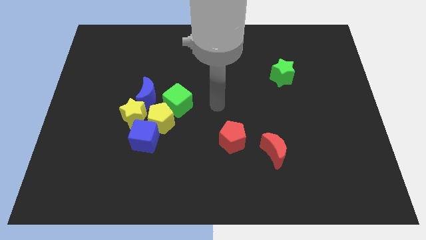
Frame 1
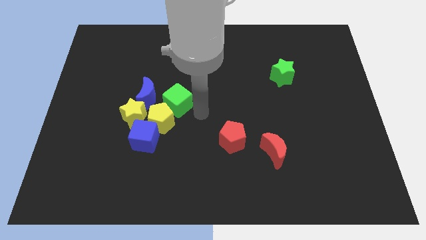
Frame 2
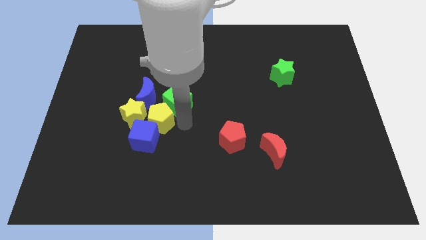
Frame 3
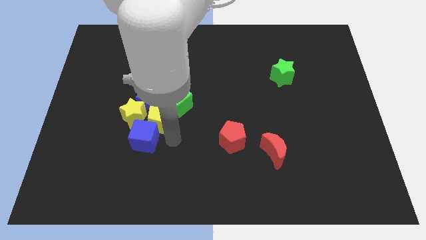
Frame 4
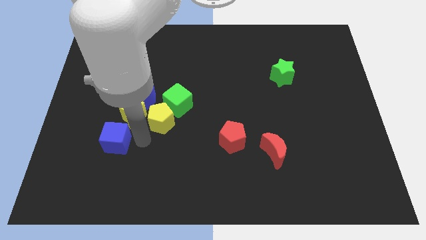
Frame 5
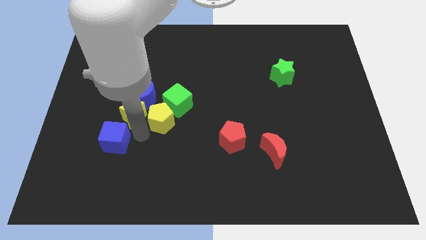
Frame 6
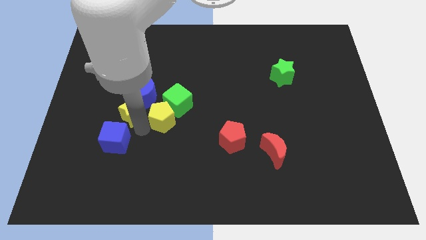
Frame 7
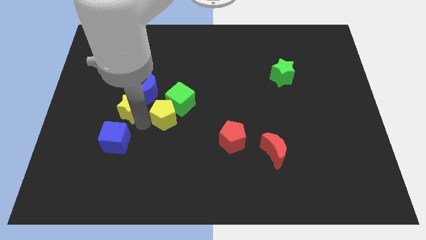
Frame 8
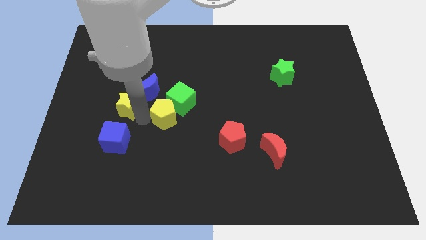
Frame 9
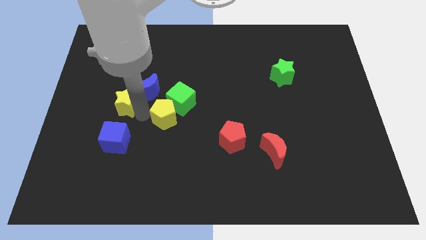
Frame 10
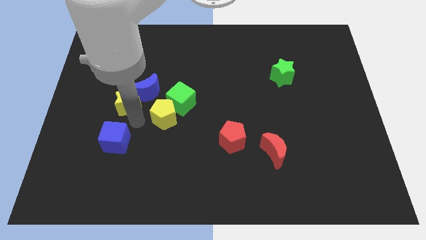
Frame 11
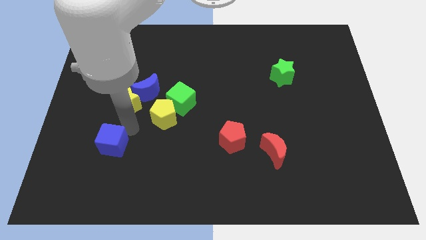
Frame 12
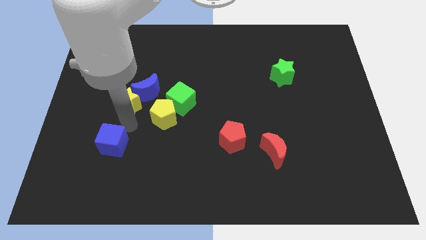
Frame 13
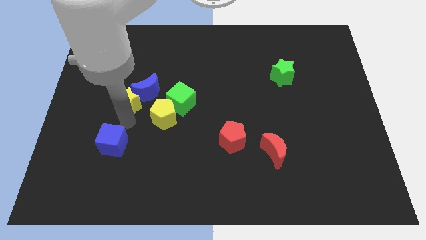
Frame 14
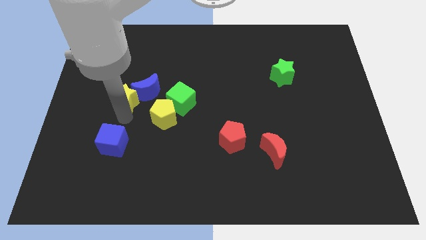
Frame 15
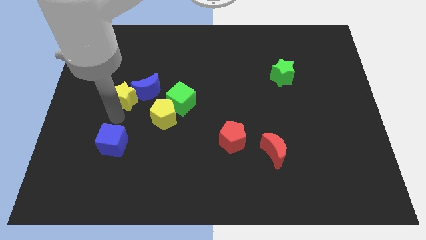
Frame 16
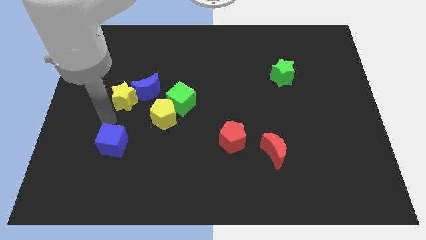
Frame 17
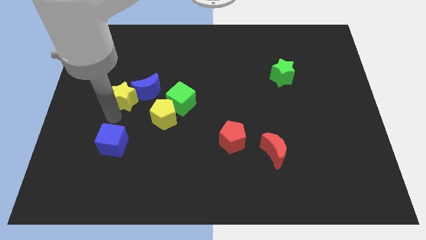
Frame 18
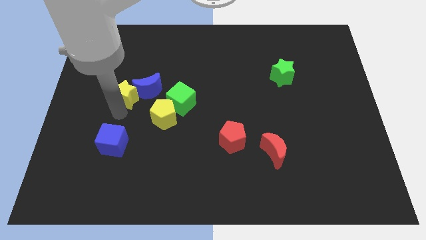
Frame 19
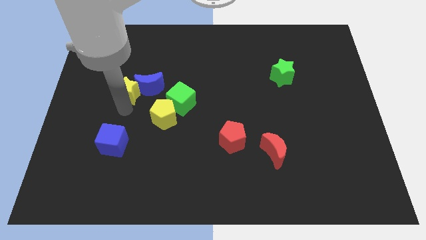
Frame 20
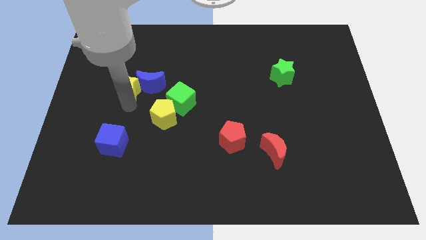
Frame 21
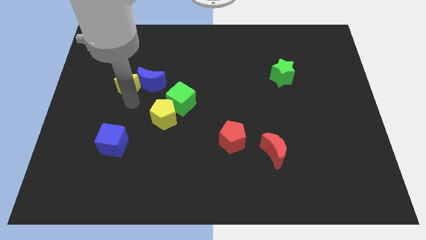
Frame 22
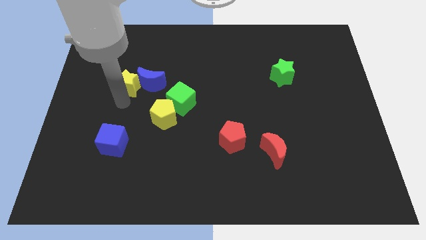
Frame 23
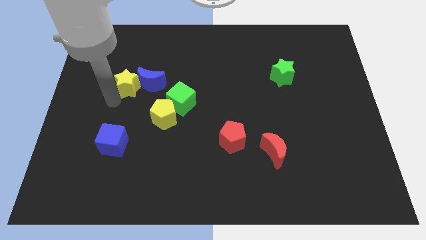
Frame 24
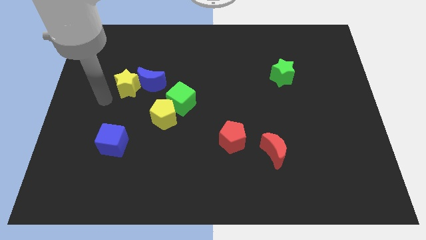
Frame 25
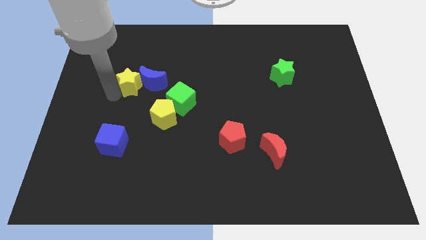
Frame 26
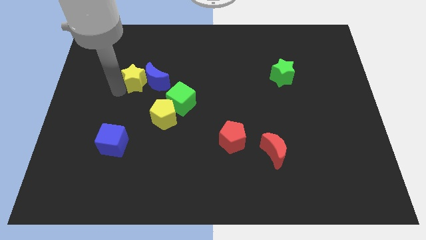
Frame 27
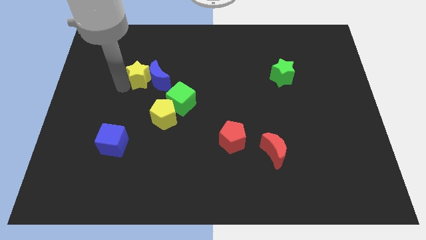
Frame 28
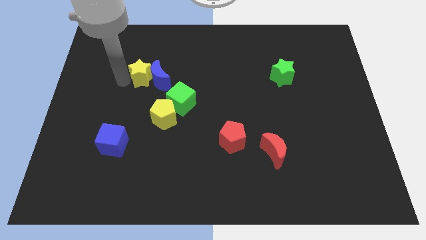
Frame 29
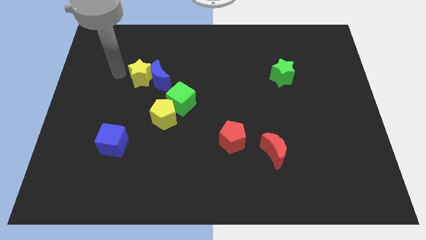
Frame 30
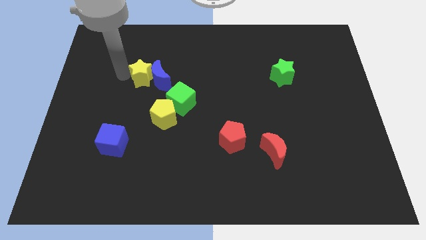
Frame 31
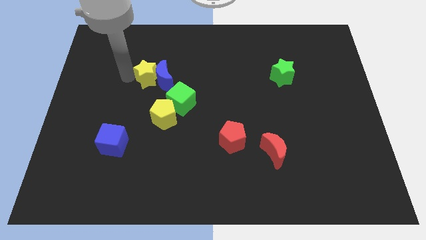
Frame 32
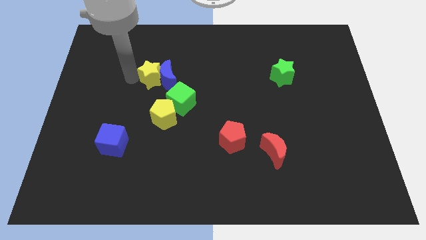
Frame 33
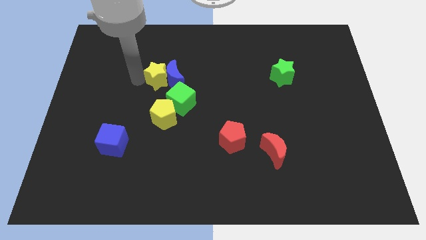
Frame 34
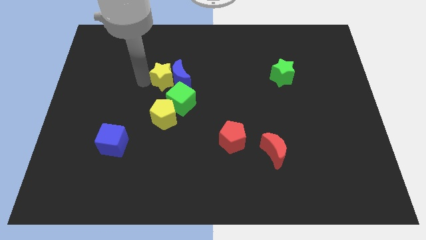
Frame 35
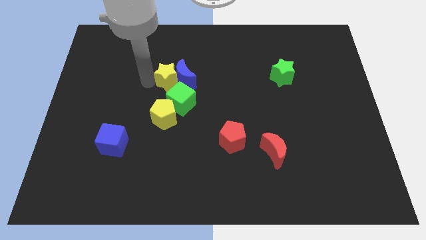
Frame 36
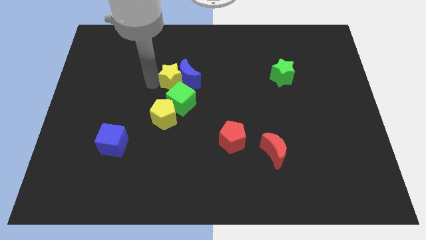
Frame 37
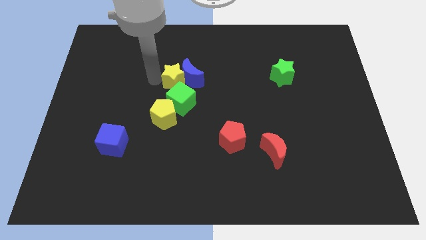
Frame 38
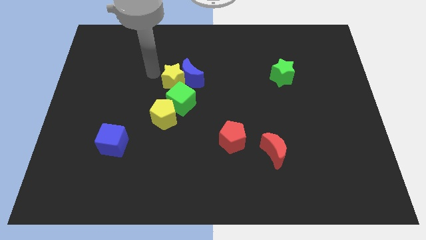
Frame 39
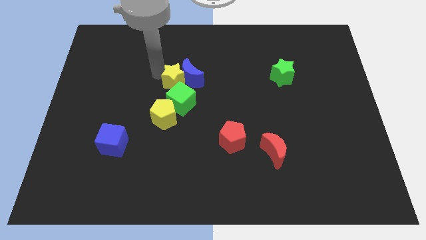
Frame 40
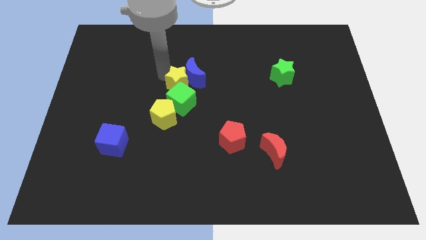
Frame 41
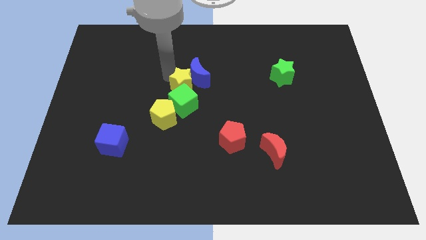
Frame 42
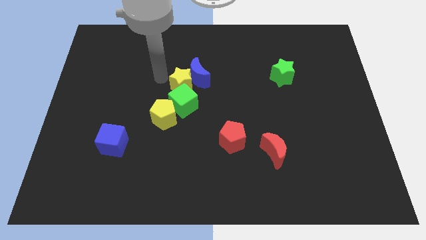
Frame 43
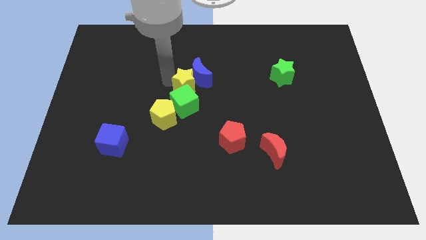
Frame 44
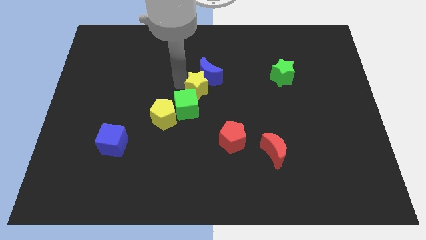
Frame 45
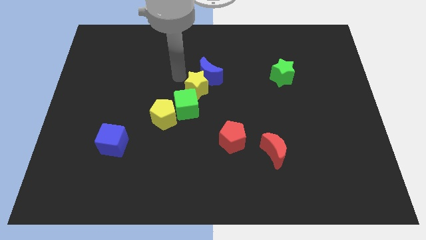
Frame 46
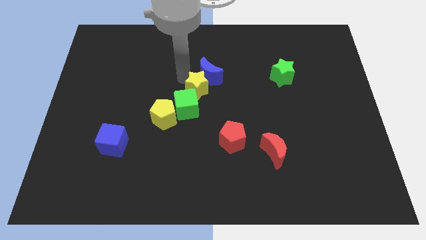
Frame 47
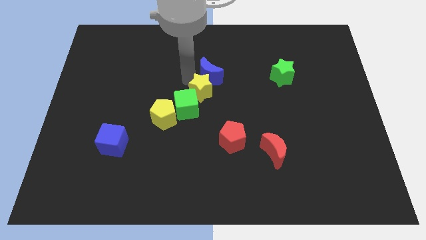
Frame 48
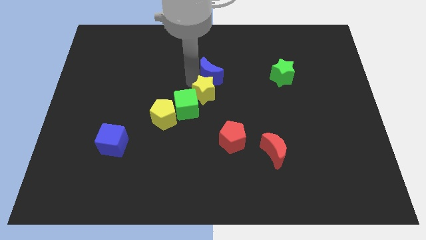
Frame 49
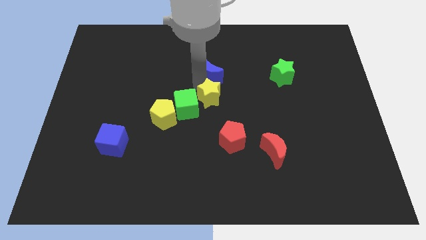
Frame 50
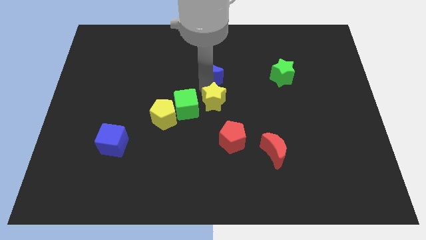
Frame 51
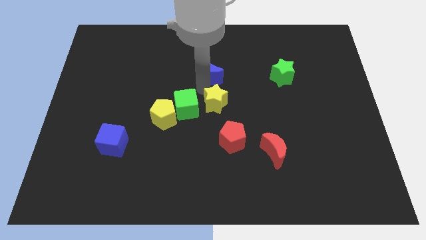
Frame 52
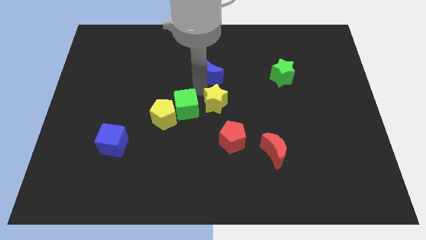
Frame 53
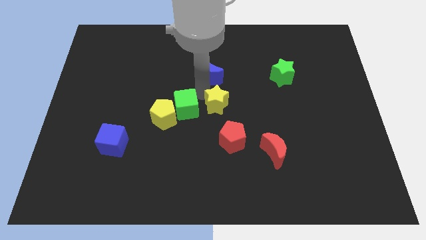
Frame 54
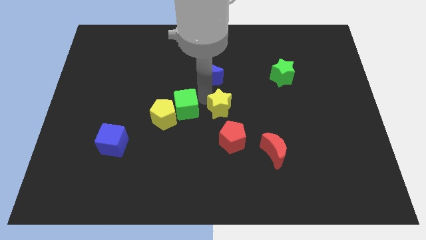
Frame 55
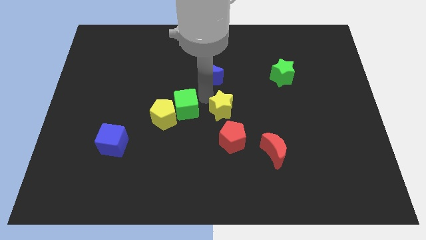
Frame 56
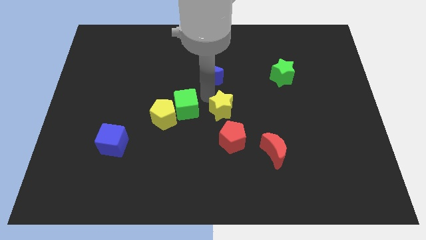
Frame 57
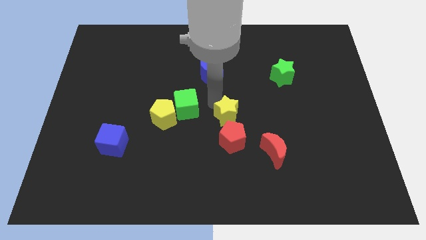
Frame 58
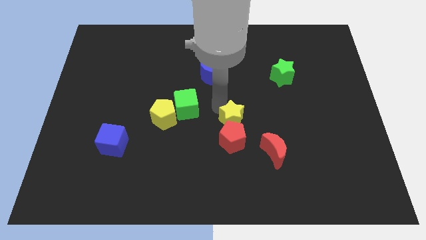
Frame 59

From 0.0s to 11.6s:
put the yellow star diagonally up and to the left of the red moon

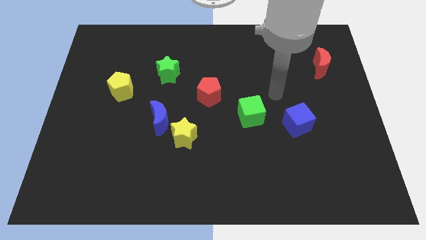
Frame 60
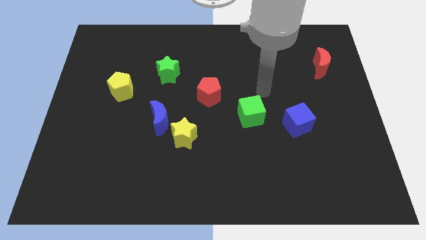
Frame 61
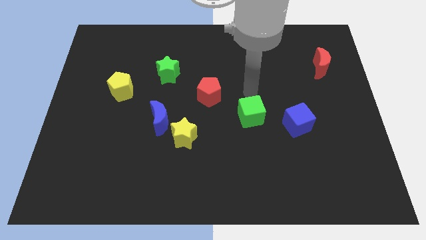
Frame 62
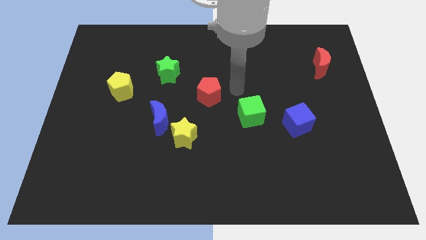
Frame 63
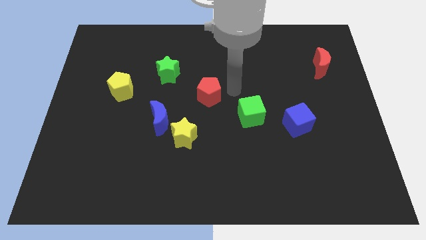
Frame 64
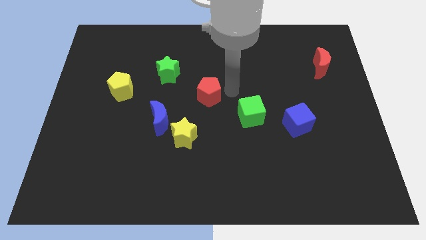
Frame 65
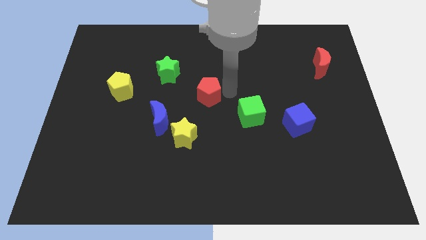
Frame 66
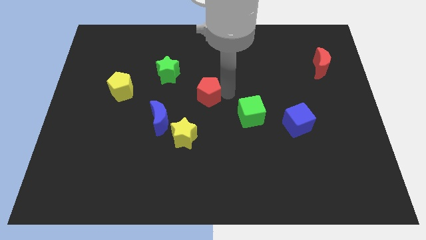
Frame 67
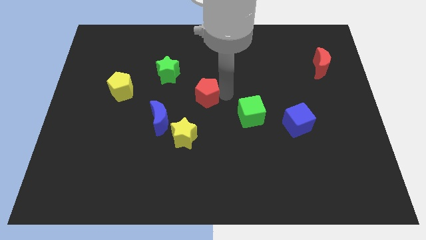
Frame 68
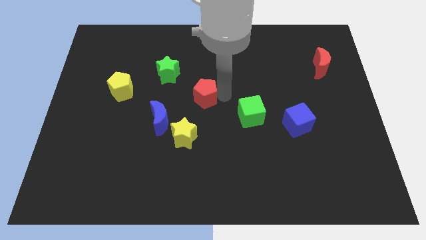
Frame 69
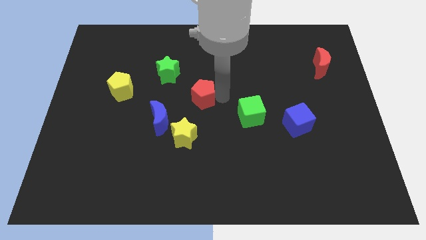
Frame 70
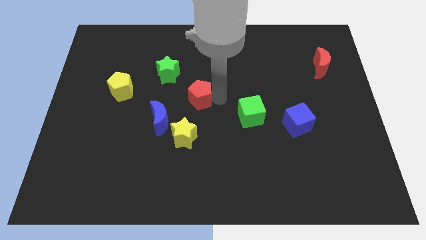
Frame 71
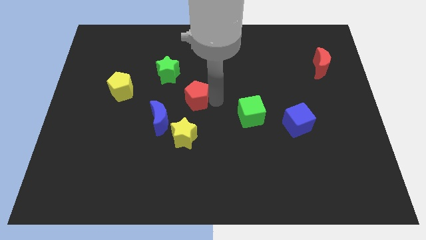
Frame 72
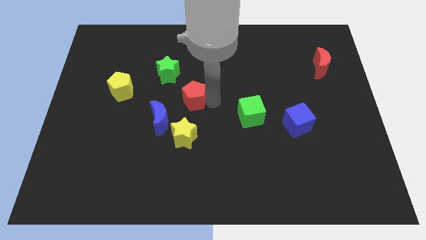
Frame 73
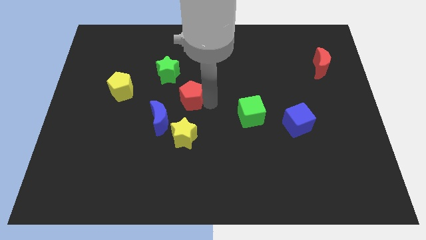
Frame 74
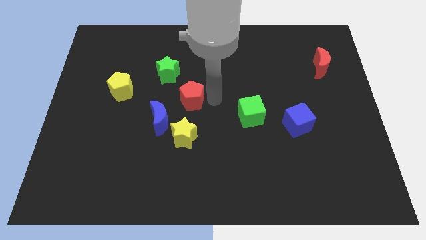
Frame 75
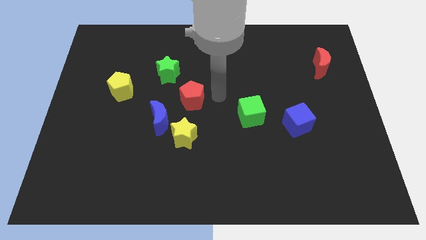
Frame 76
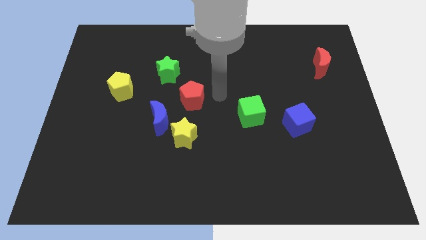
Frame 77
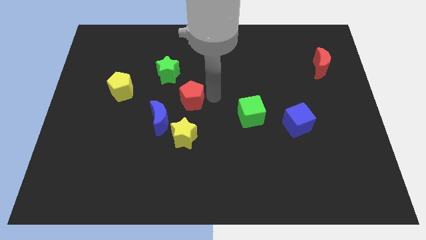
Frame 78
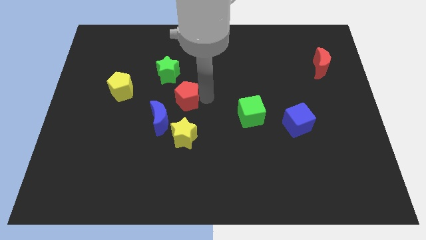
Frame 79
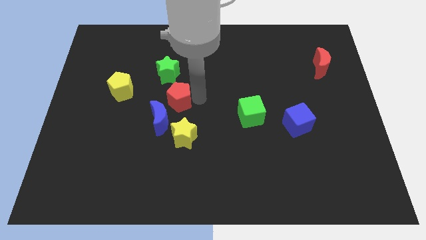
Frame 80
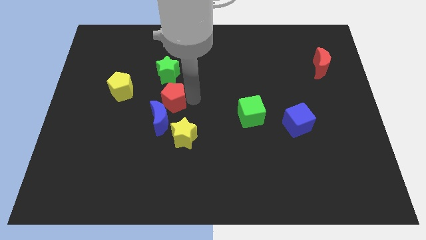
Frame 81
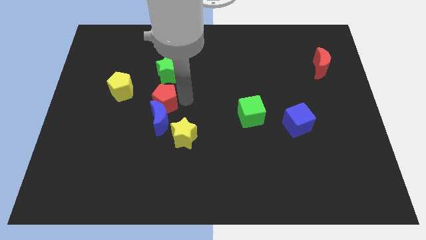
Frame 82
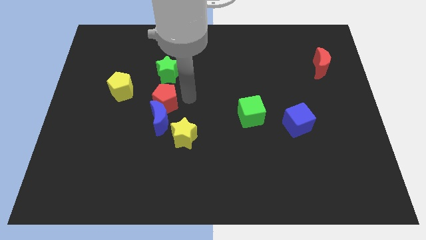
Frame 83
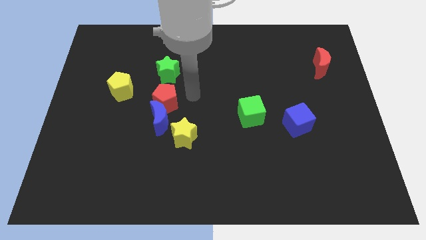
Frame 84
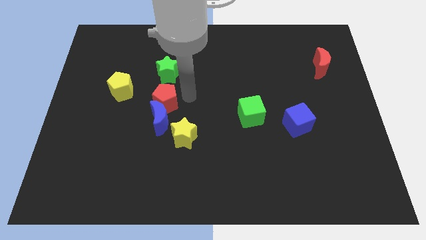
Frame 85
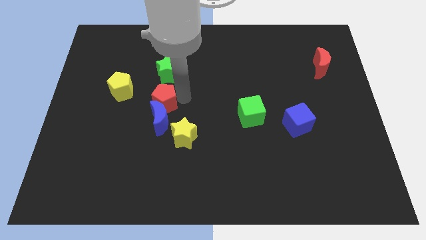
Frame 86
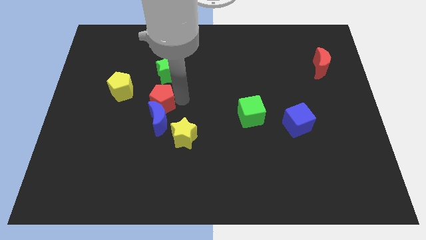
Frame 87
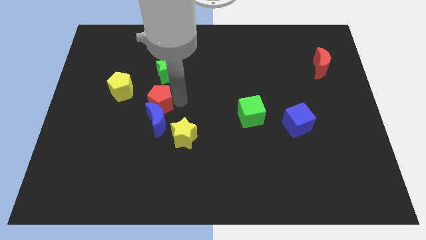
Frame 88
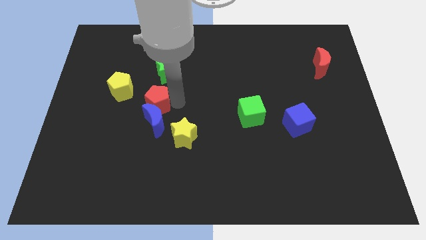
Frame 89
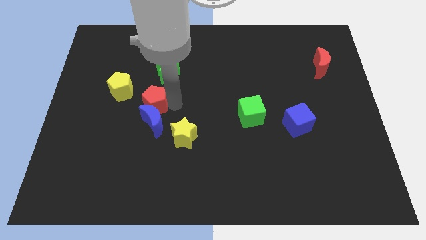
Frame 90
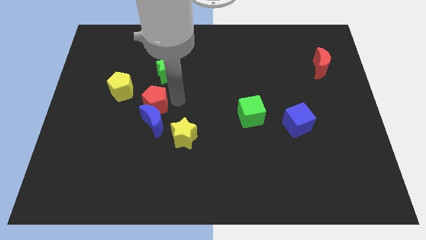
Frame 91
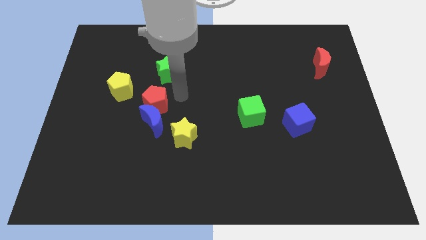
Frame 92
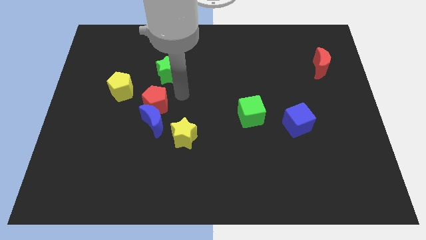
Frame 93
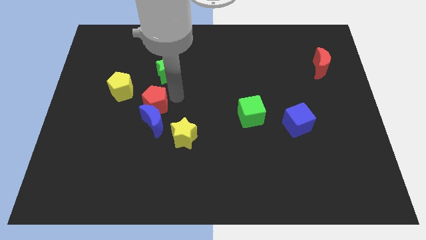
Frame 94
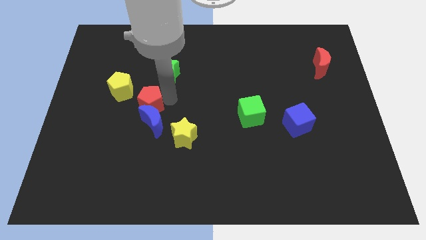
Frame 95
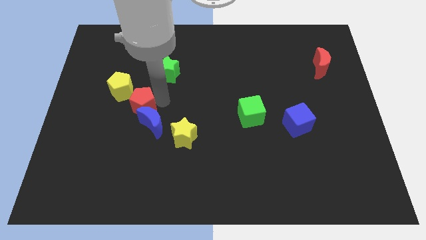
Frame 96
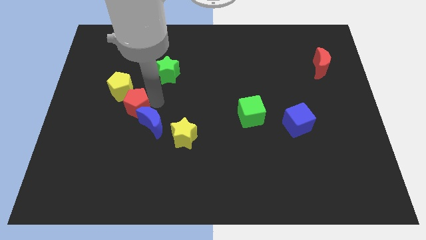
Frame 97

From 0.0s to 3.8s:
put the red pentagon just left of the blue moon
